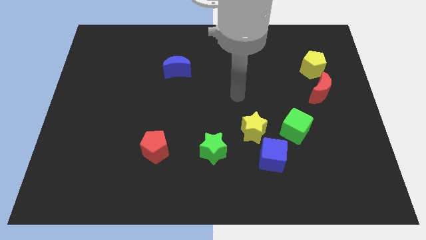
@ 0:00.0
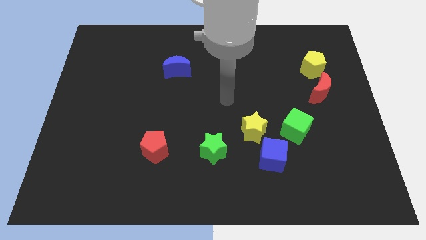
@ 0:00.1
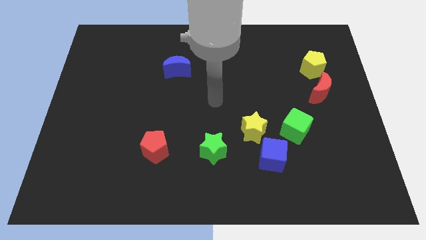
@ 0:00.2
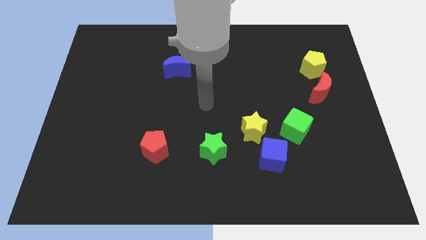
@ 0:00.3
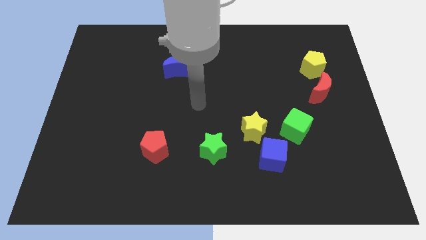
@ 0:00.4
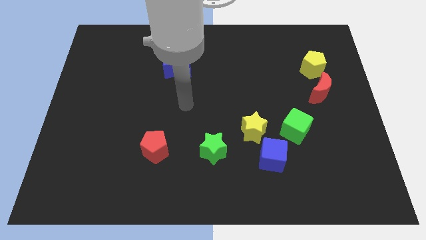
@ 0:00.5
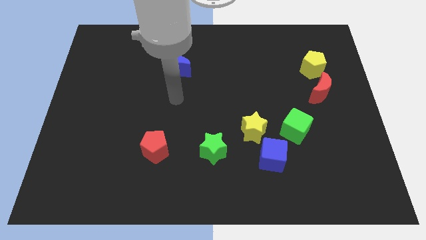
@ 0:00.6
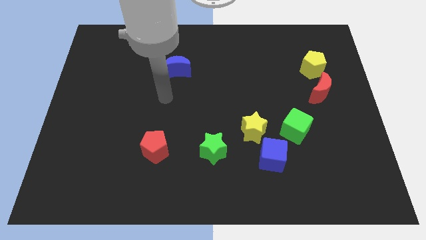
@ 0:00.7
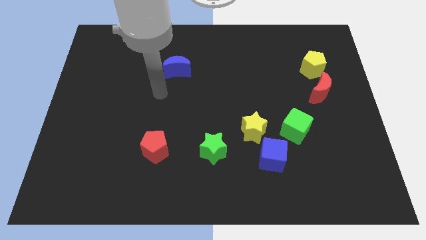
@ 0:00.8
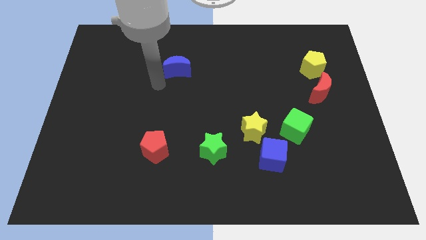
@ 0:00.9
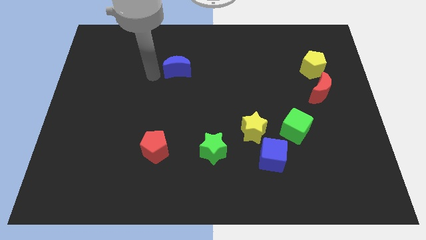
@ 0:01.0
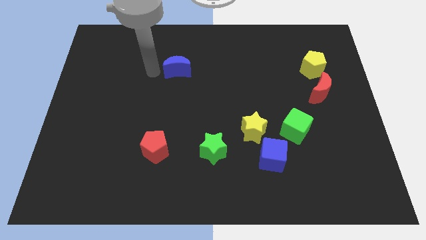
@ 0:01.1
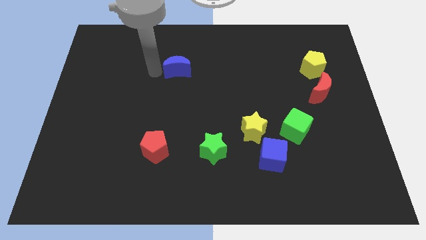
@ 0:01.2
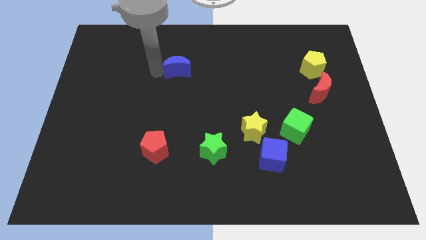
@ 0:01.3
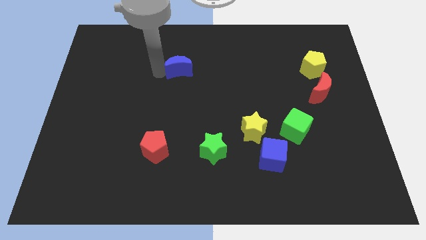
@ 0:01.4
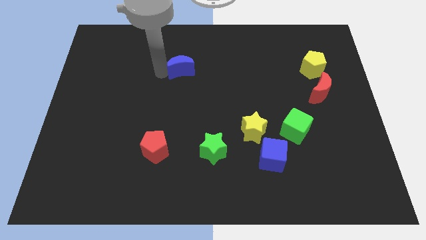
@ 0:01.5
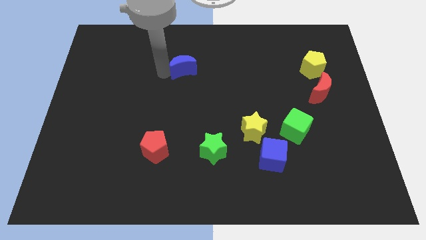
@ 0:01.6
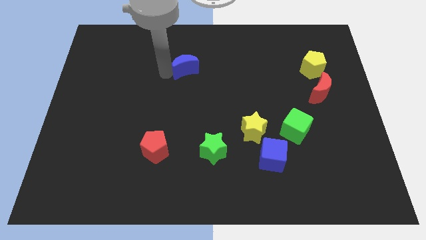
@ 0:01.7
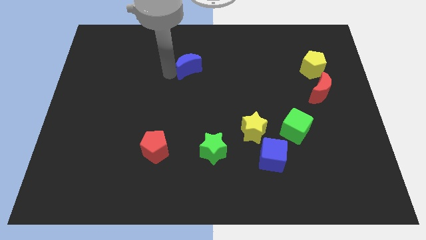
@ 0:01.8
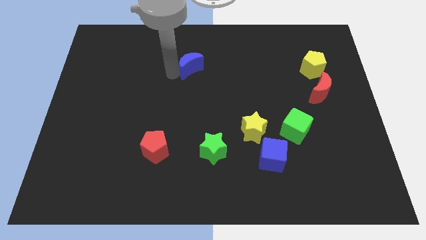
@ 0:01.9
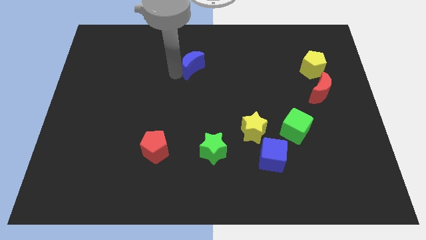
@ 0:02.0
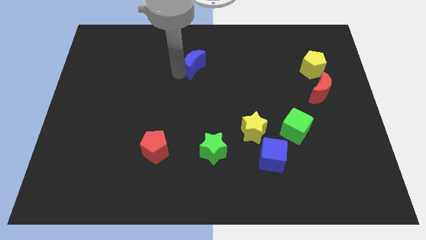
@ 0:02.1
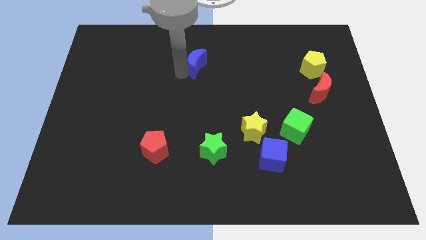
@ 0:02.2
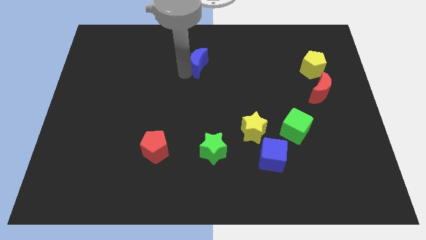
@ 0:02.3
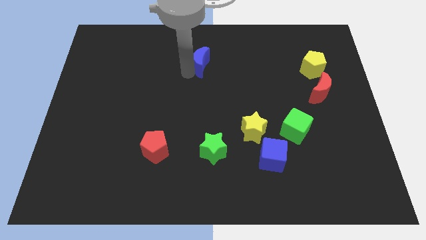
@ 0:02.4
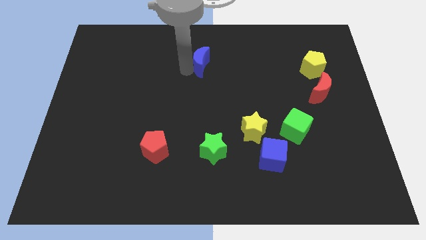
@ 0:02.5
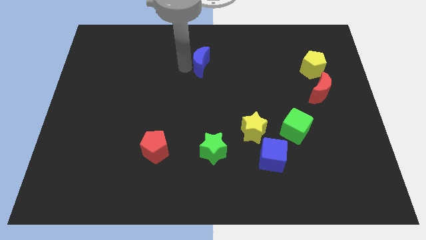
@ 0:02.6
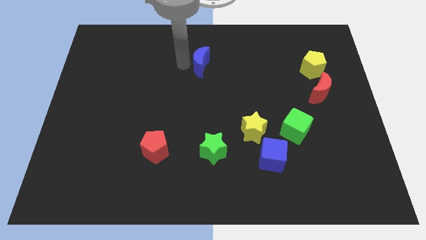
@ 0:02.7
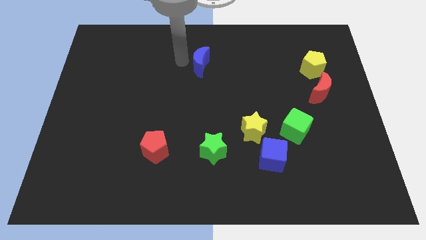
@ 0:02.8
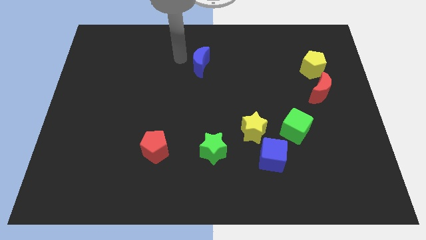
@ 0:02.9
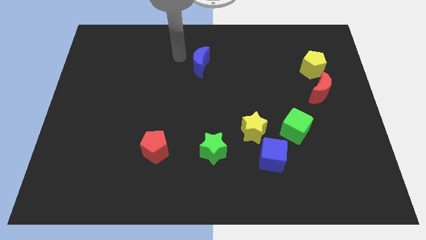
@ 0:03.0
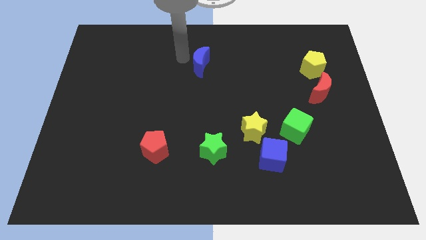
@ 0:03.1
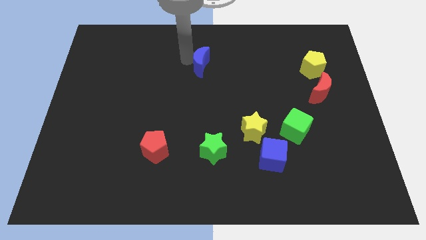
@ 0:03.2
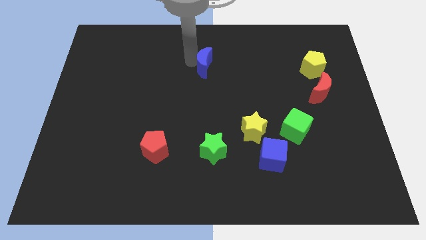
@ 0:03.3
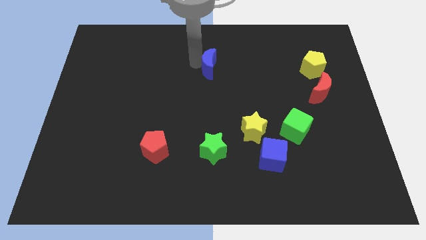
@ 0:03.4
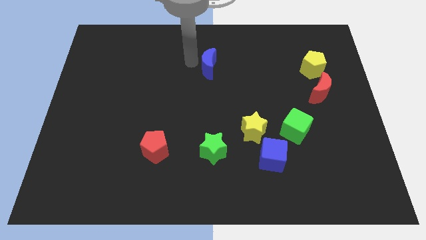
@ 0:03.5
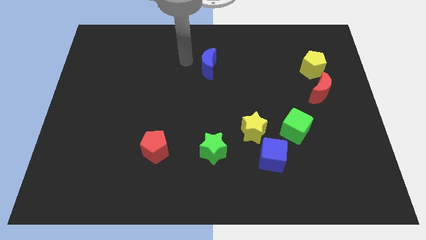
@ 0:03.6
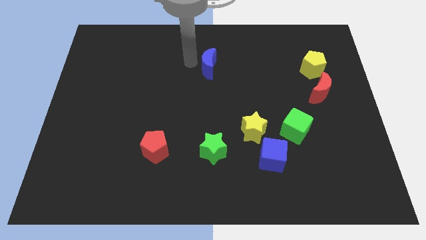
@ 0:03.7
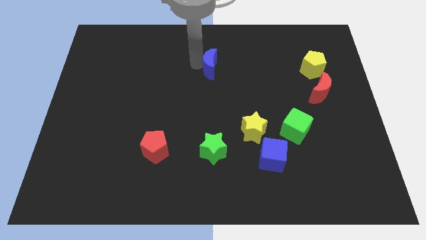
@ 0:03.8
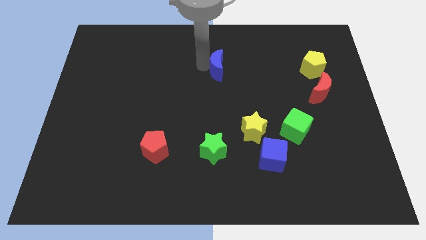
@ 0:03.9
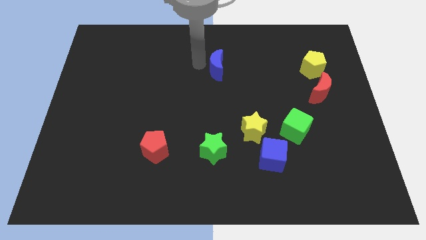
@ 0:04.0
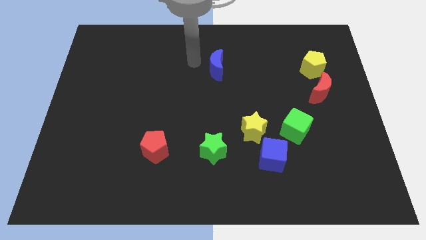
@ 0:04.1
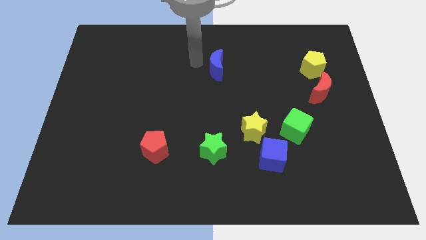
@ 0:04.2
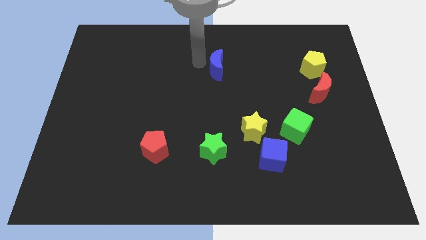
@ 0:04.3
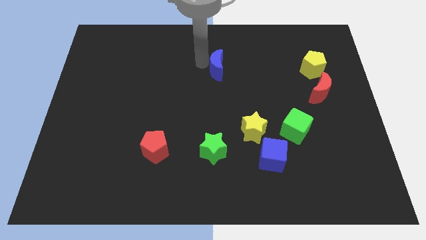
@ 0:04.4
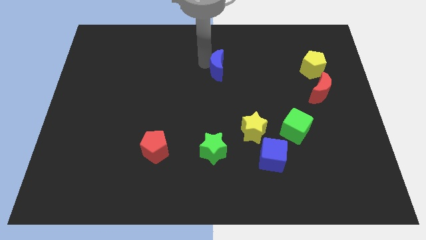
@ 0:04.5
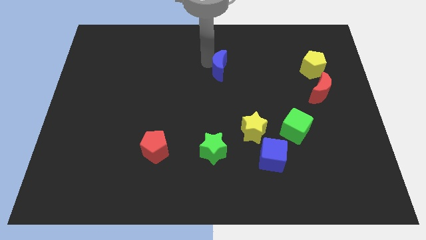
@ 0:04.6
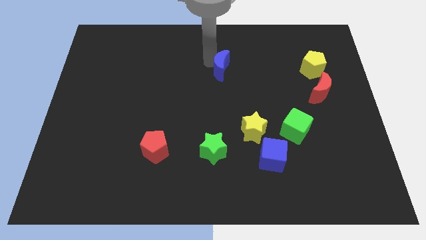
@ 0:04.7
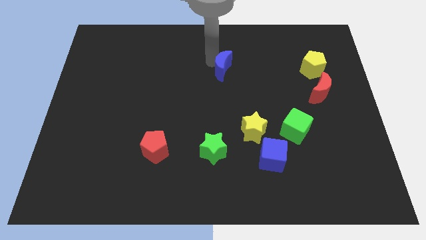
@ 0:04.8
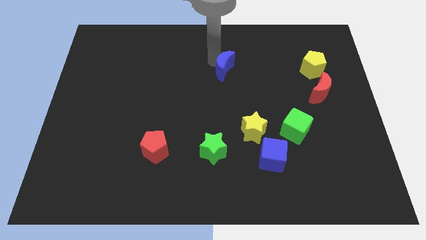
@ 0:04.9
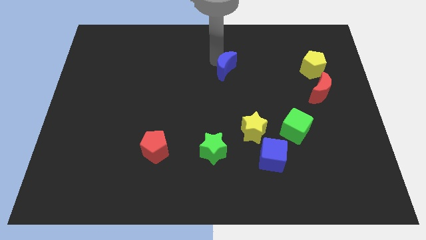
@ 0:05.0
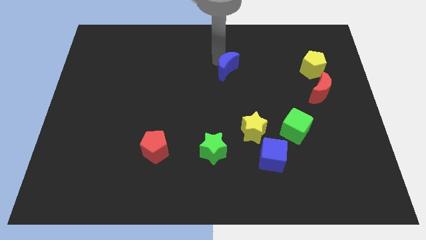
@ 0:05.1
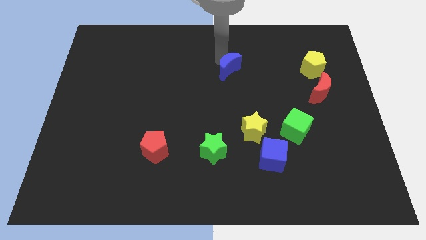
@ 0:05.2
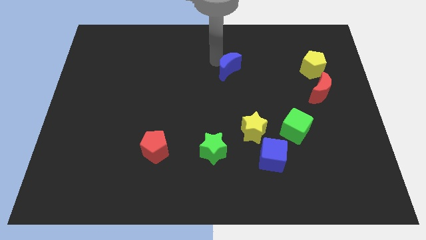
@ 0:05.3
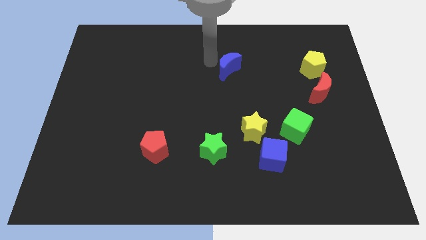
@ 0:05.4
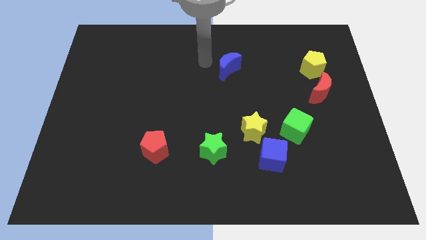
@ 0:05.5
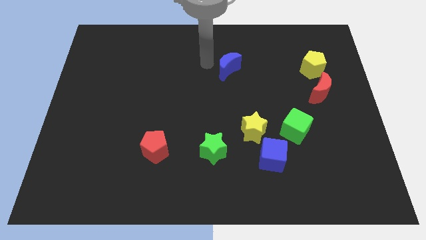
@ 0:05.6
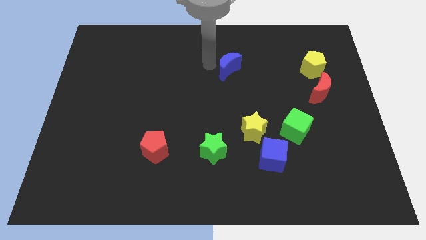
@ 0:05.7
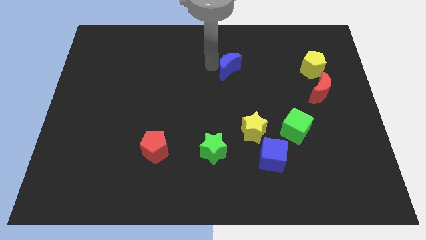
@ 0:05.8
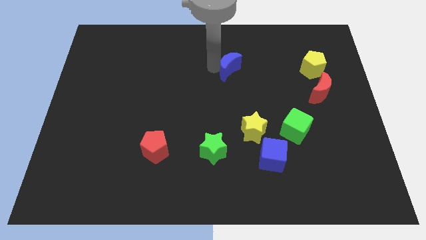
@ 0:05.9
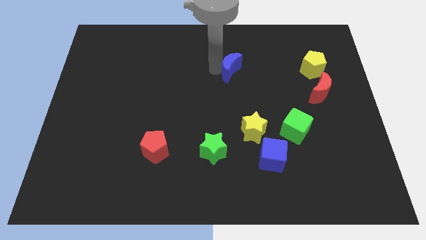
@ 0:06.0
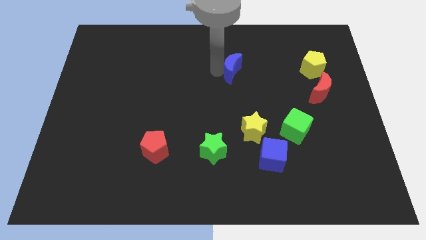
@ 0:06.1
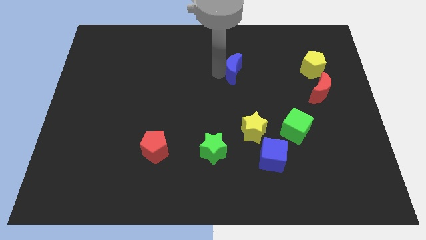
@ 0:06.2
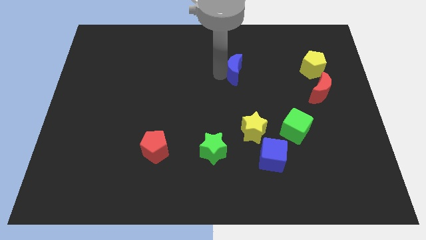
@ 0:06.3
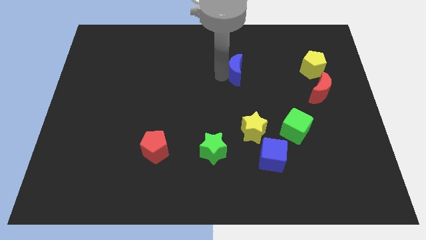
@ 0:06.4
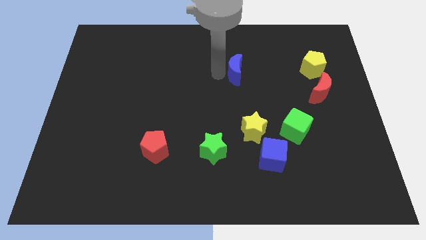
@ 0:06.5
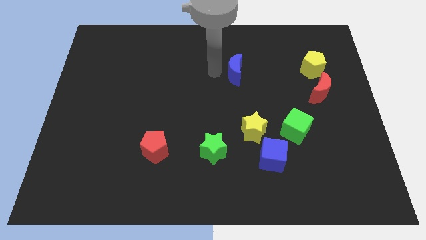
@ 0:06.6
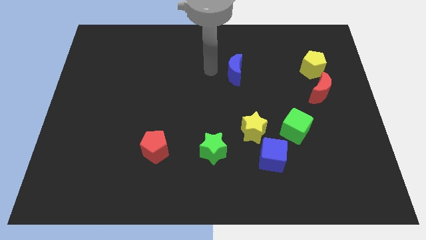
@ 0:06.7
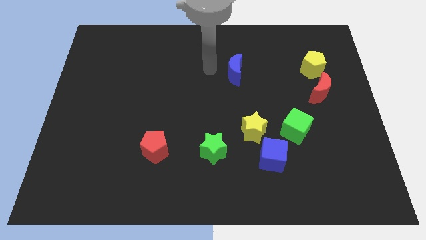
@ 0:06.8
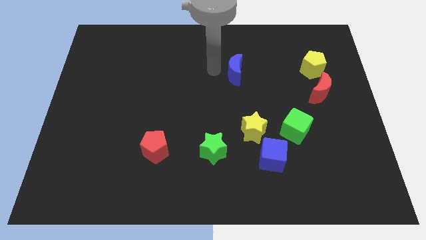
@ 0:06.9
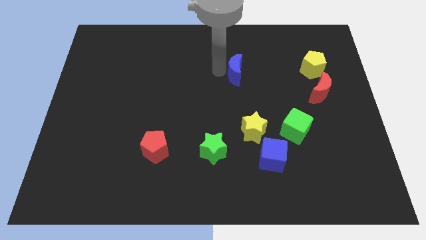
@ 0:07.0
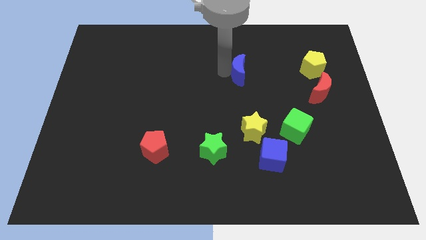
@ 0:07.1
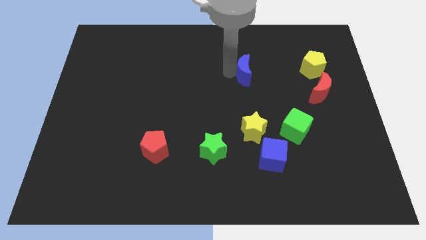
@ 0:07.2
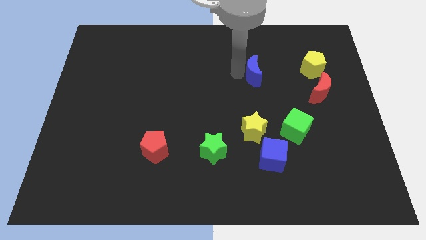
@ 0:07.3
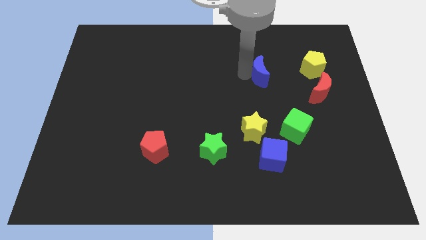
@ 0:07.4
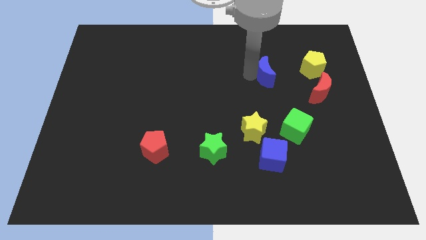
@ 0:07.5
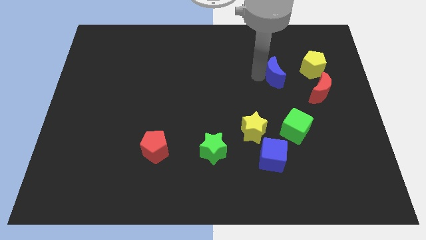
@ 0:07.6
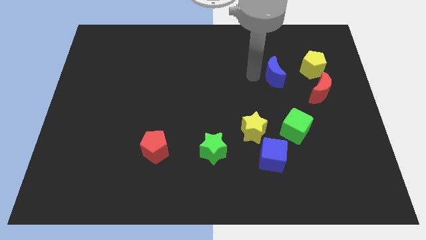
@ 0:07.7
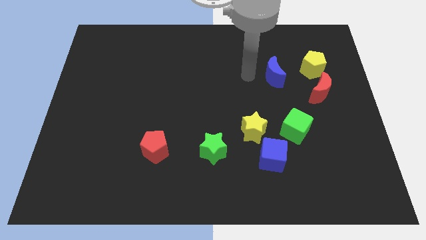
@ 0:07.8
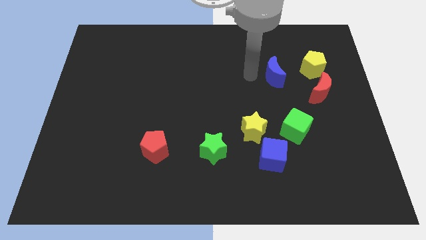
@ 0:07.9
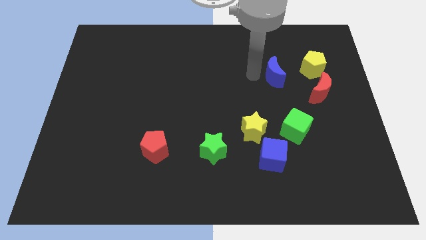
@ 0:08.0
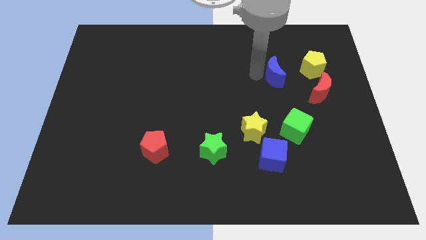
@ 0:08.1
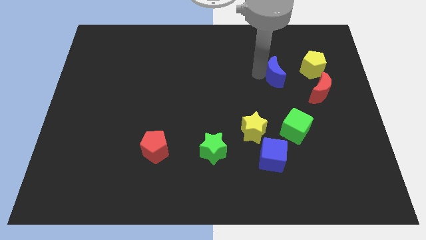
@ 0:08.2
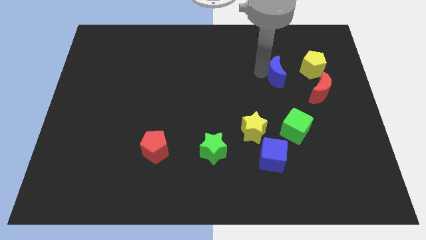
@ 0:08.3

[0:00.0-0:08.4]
put the blue moon diagonally up and to the left of the red moon
